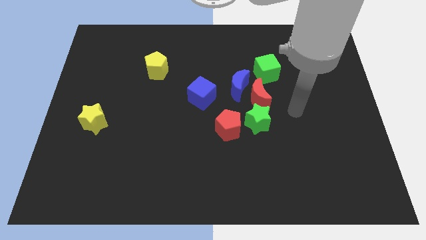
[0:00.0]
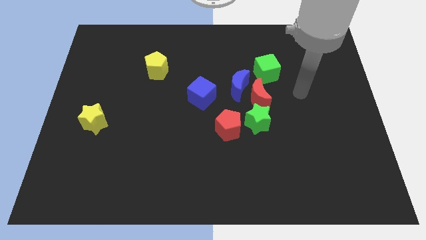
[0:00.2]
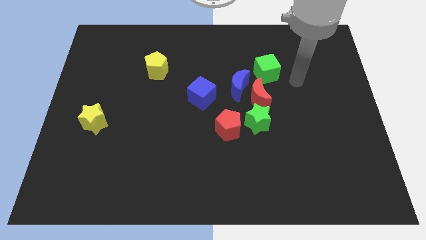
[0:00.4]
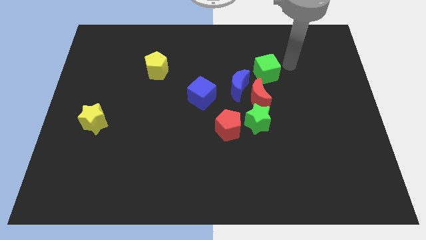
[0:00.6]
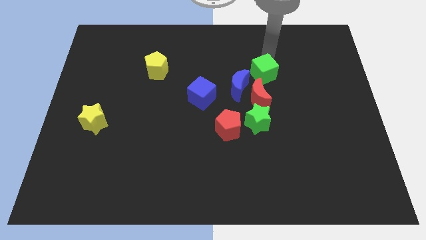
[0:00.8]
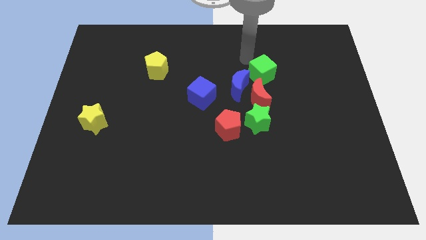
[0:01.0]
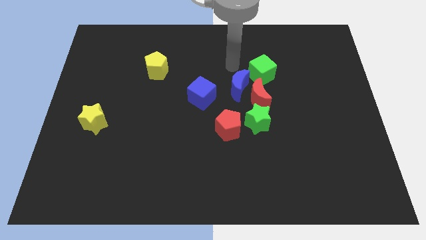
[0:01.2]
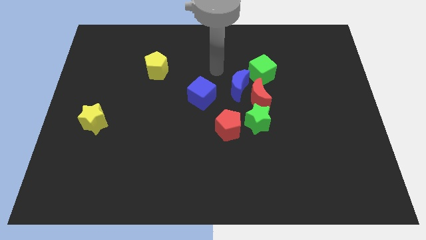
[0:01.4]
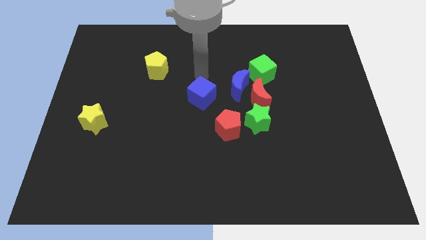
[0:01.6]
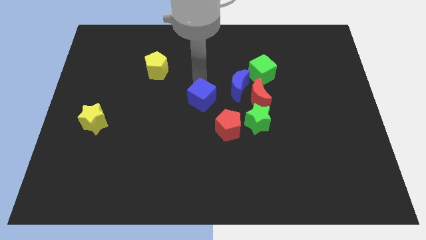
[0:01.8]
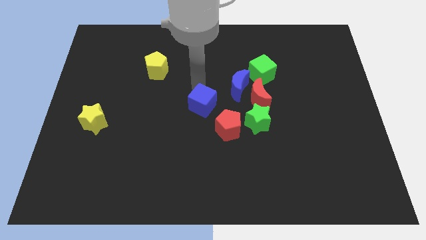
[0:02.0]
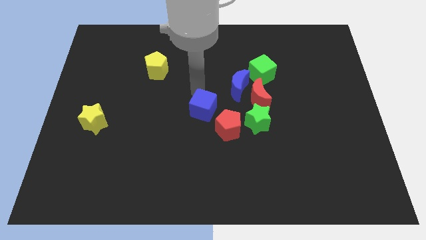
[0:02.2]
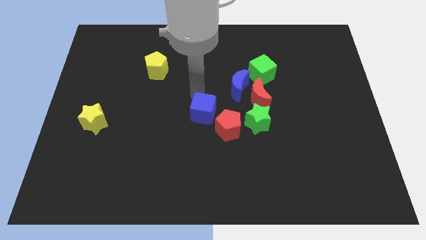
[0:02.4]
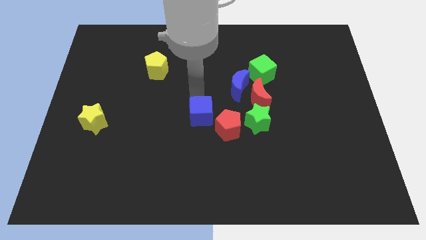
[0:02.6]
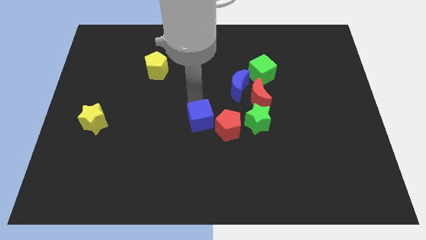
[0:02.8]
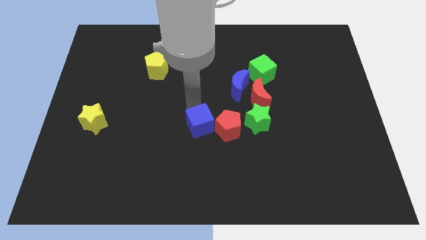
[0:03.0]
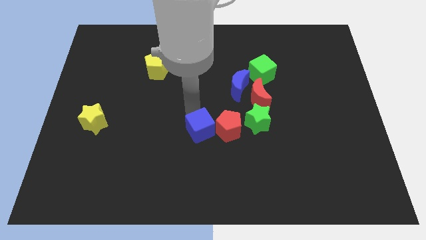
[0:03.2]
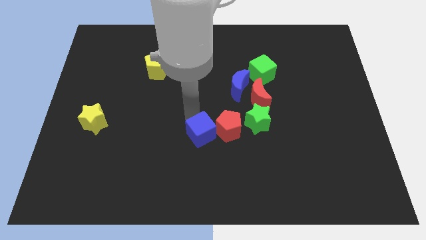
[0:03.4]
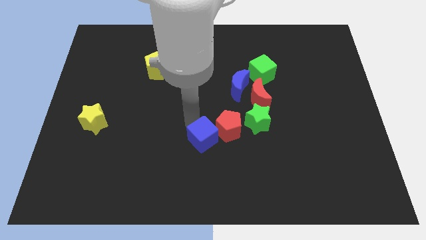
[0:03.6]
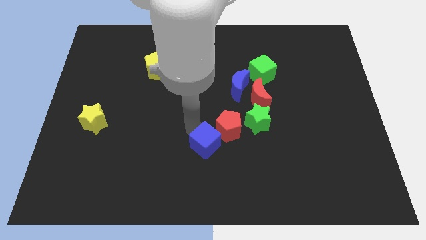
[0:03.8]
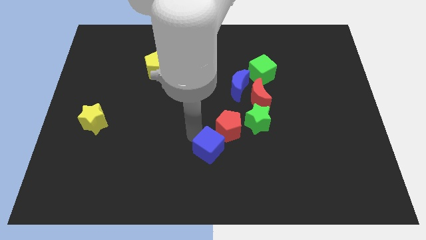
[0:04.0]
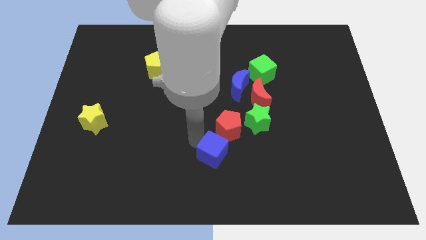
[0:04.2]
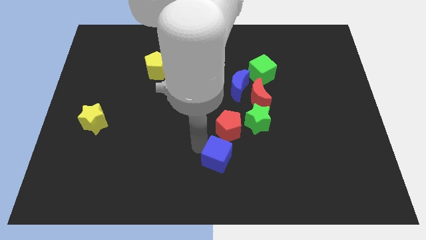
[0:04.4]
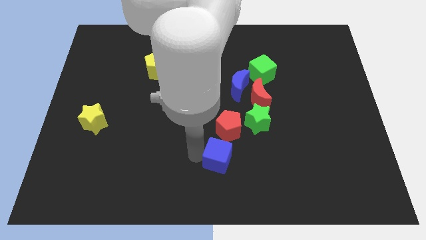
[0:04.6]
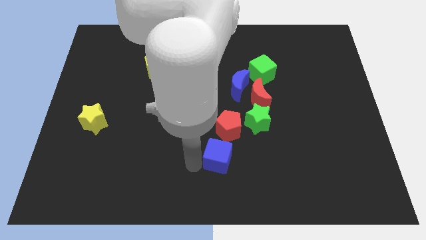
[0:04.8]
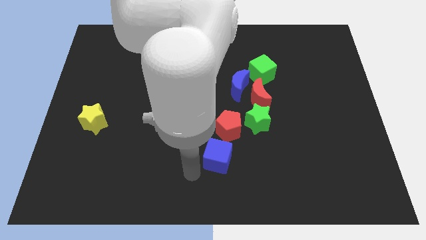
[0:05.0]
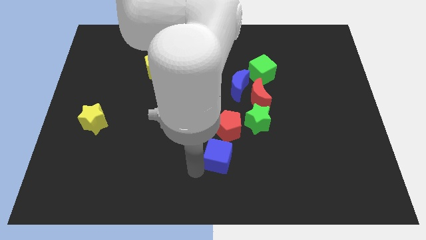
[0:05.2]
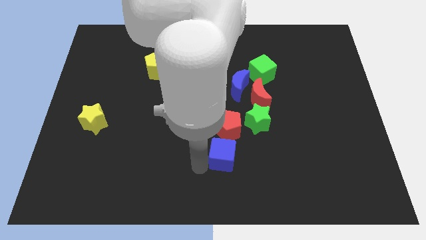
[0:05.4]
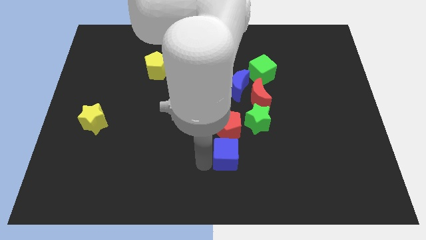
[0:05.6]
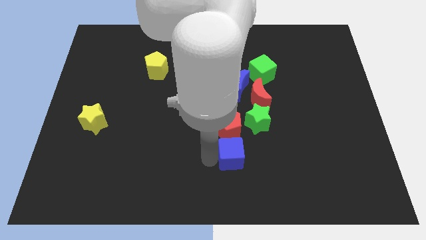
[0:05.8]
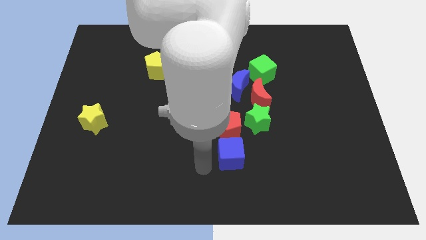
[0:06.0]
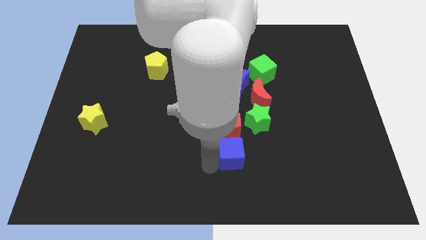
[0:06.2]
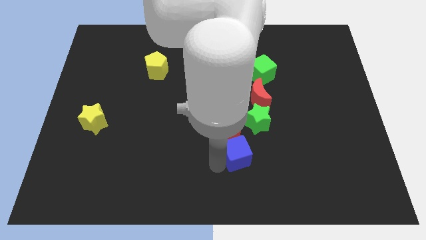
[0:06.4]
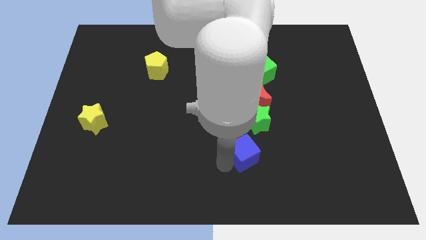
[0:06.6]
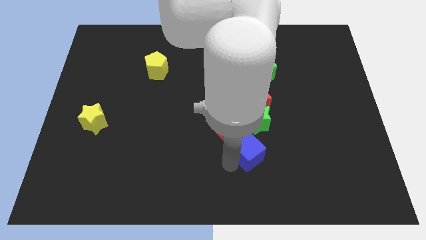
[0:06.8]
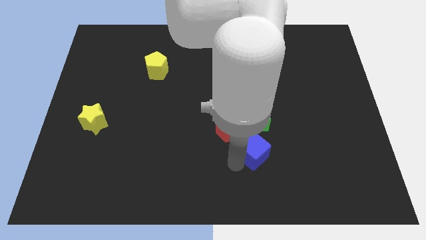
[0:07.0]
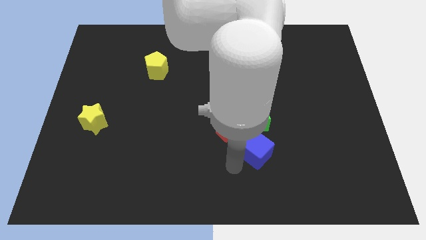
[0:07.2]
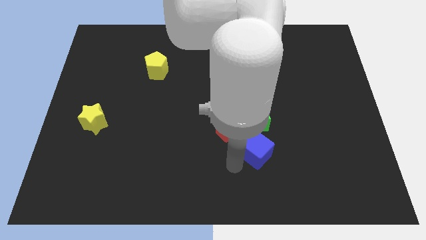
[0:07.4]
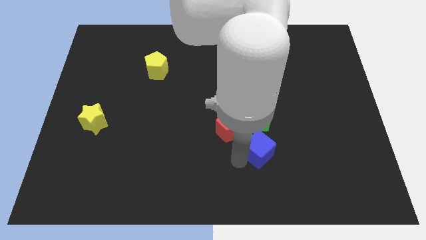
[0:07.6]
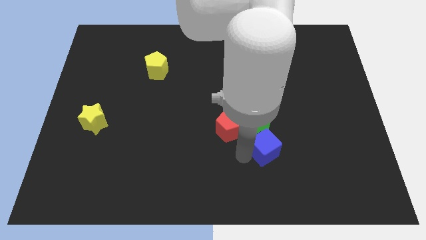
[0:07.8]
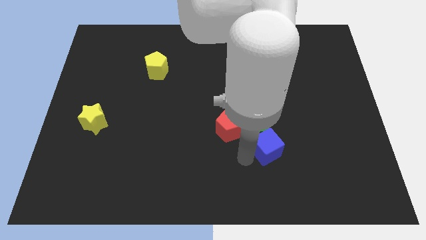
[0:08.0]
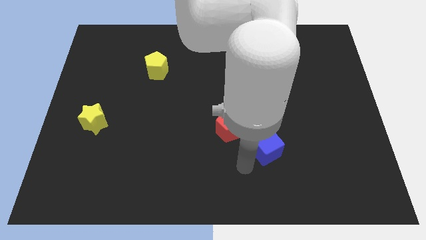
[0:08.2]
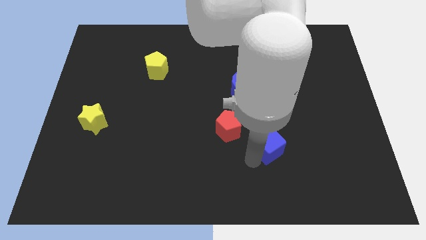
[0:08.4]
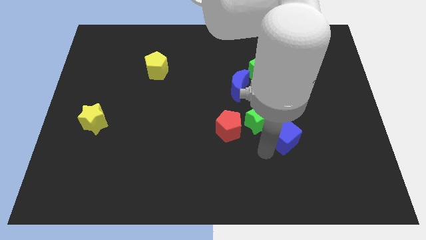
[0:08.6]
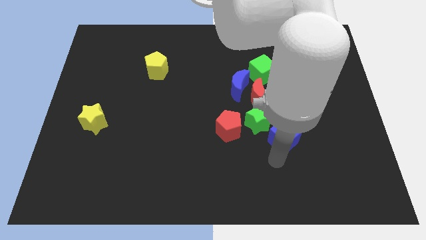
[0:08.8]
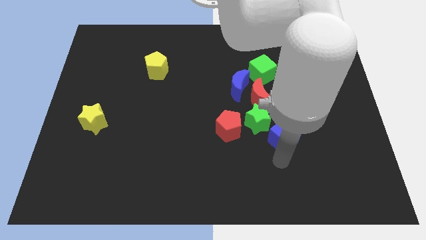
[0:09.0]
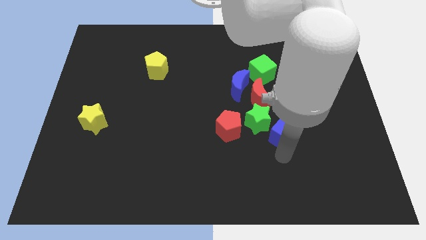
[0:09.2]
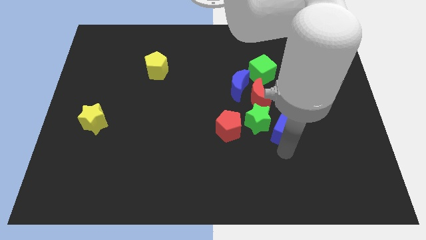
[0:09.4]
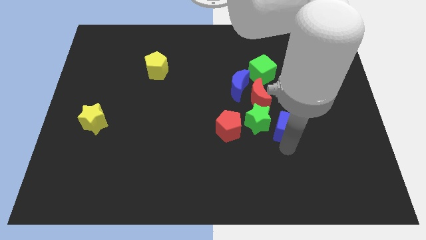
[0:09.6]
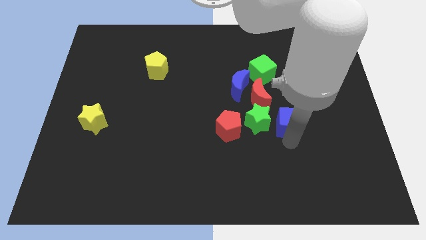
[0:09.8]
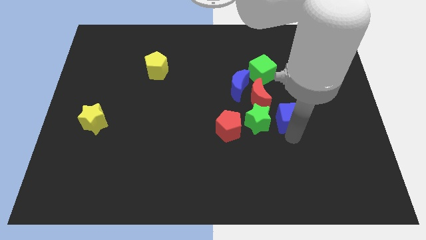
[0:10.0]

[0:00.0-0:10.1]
move the blue cube to the top right side of the green star

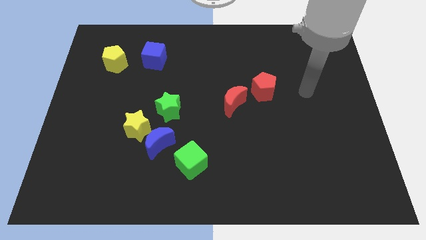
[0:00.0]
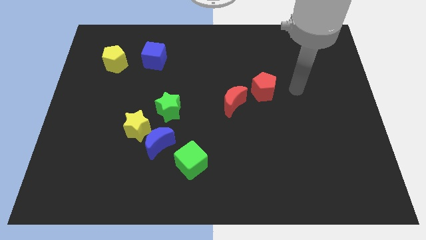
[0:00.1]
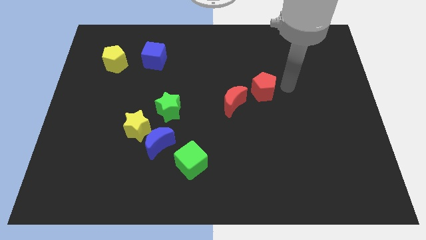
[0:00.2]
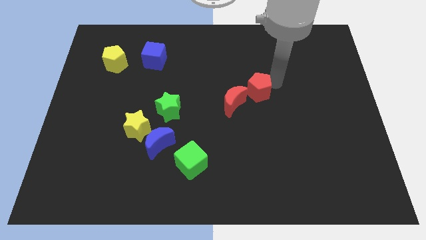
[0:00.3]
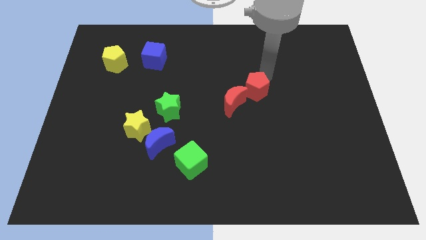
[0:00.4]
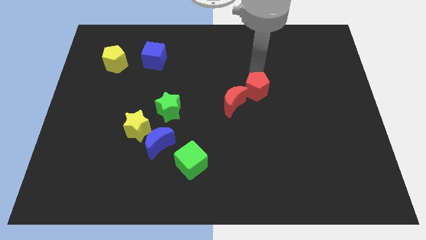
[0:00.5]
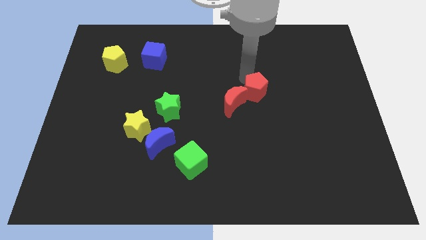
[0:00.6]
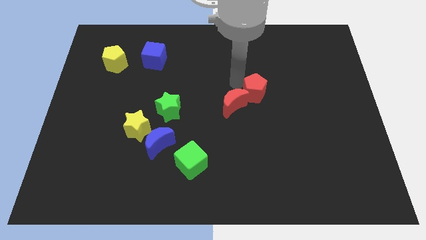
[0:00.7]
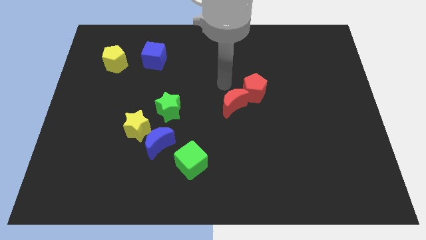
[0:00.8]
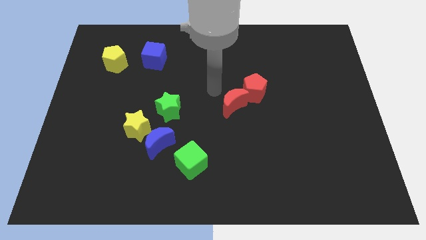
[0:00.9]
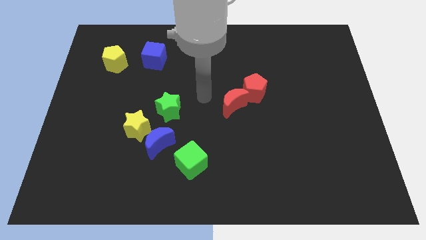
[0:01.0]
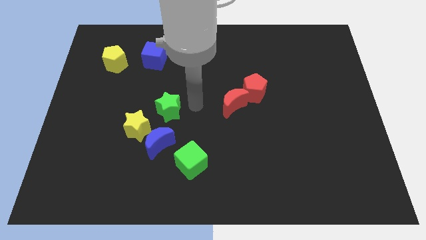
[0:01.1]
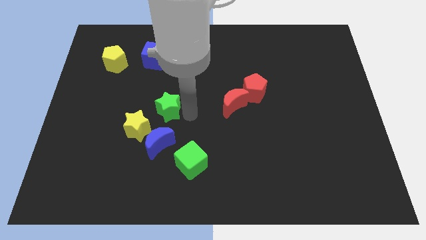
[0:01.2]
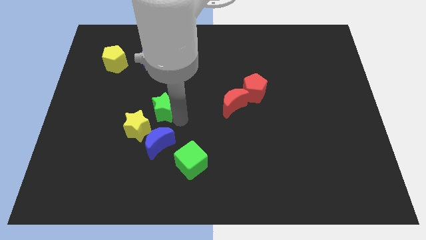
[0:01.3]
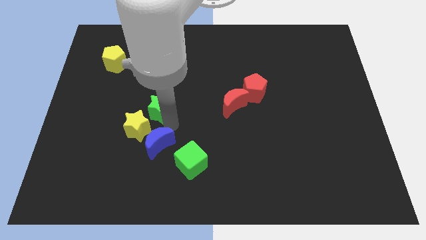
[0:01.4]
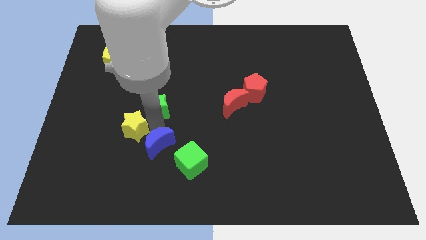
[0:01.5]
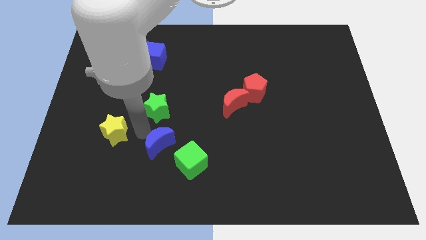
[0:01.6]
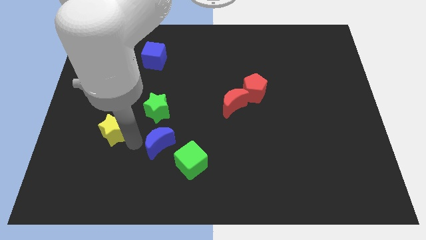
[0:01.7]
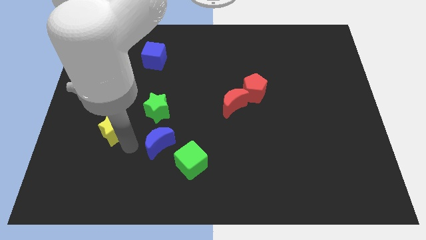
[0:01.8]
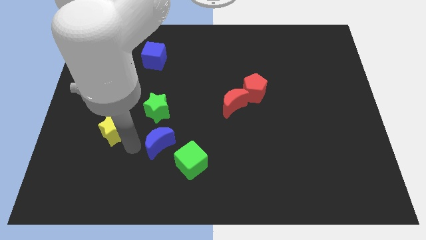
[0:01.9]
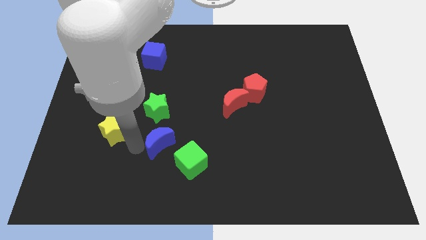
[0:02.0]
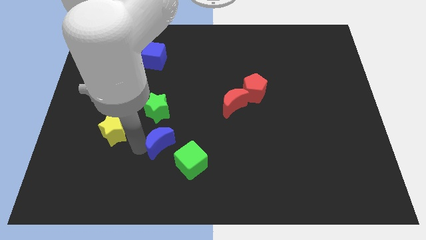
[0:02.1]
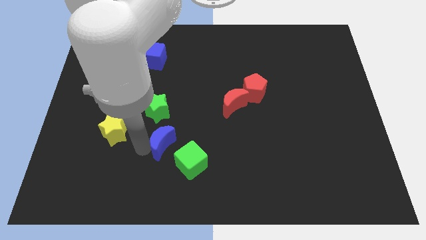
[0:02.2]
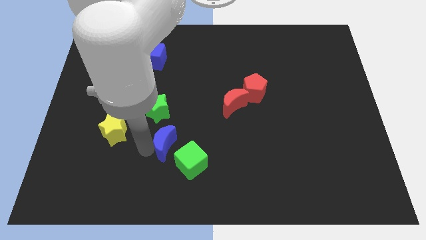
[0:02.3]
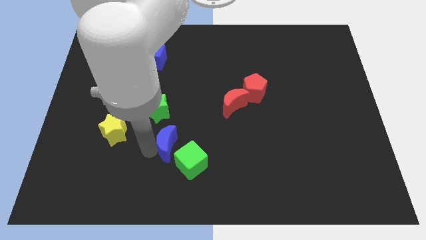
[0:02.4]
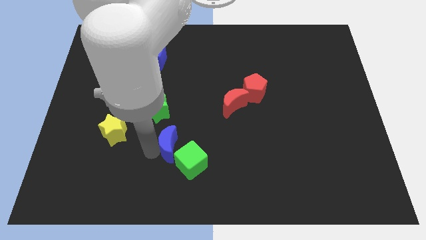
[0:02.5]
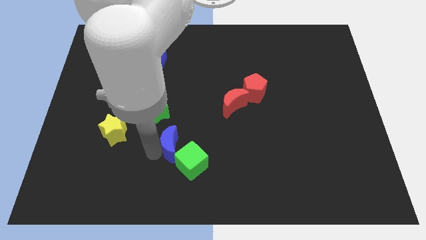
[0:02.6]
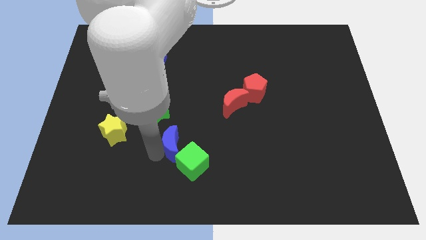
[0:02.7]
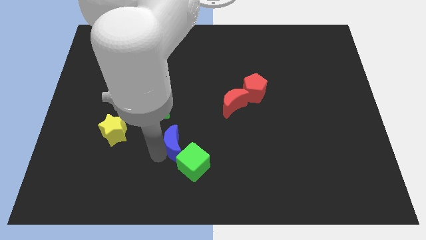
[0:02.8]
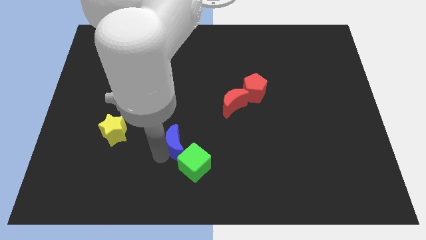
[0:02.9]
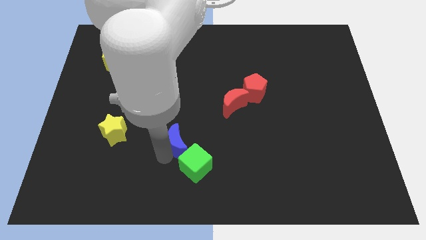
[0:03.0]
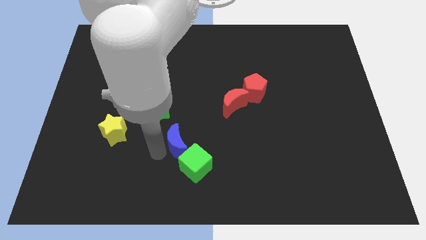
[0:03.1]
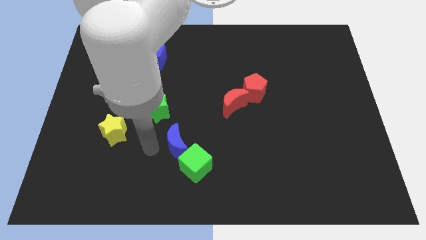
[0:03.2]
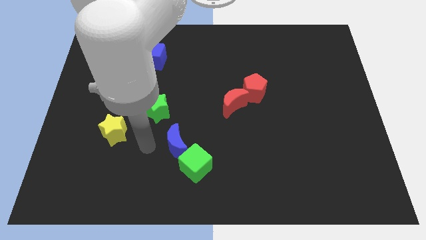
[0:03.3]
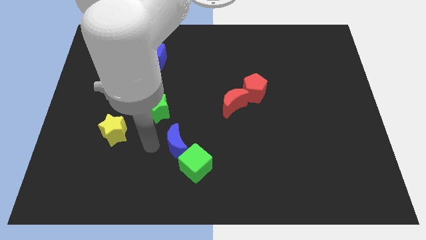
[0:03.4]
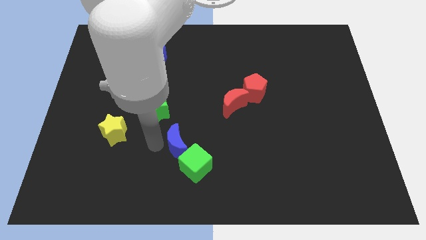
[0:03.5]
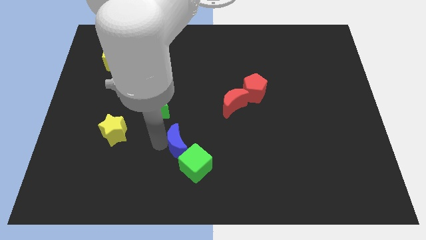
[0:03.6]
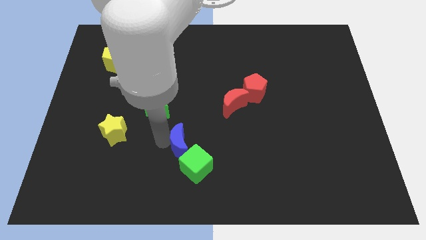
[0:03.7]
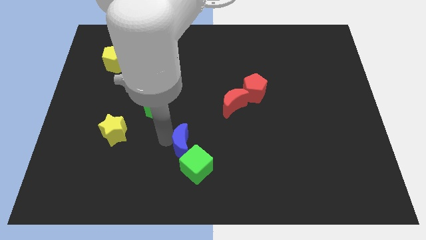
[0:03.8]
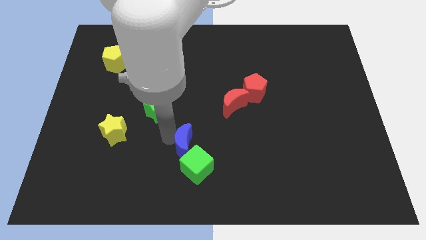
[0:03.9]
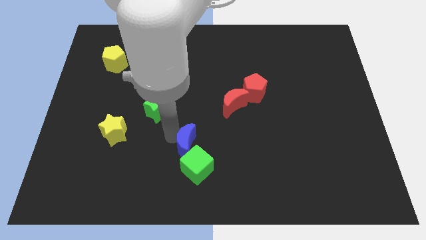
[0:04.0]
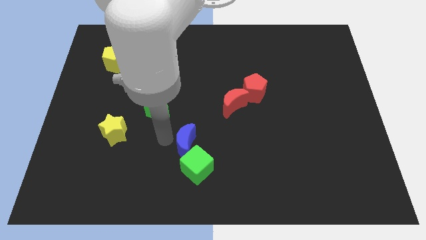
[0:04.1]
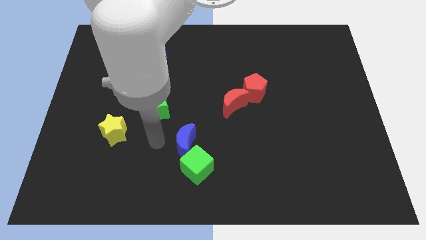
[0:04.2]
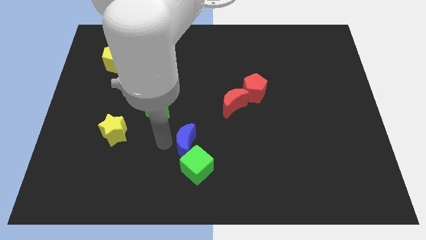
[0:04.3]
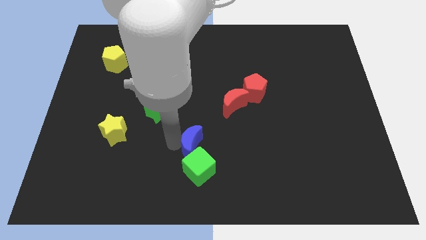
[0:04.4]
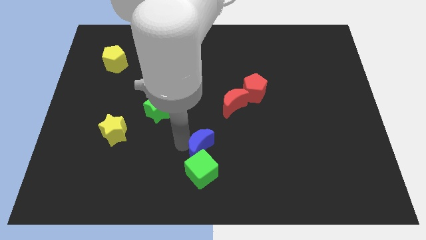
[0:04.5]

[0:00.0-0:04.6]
put the blue moon to the top right side of the green cube
